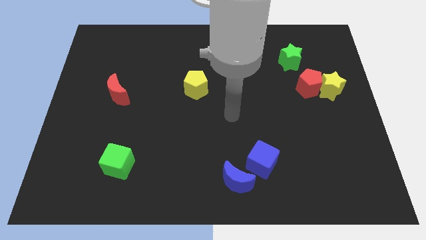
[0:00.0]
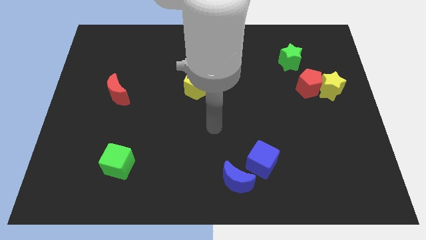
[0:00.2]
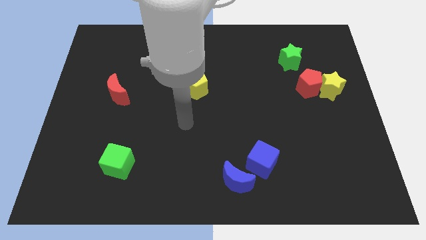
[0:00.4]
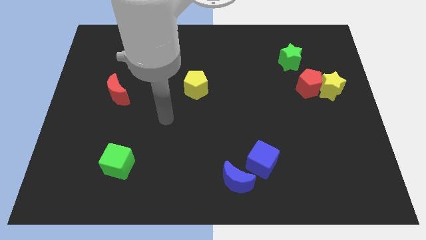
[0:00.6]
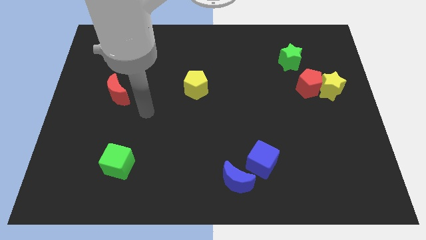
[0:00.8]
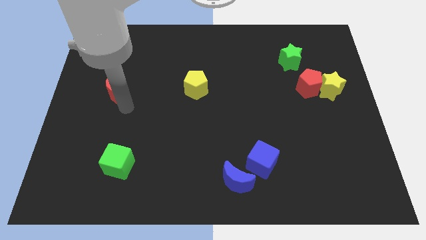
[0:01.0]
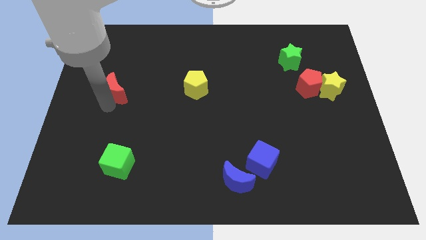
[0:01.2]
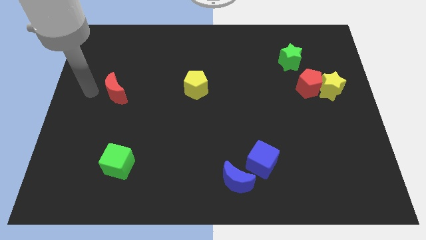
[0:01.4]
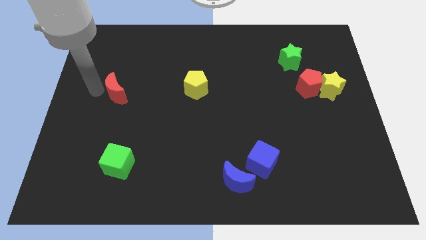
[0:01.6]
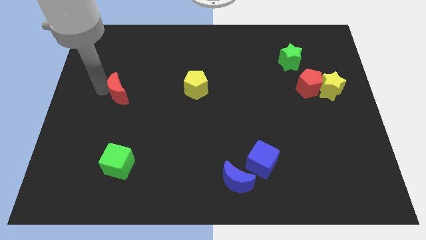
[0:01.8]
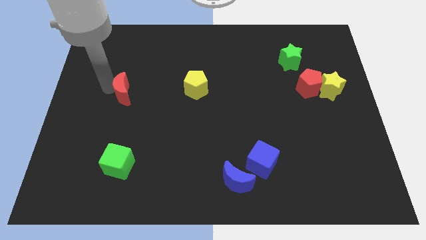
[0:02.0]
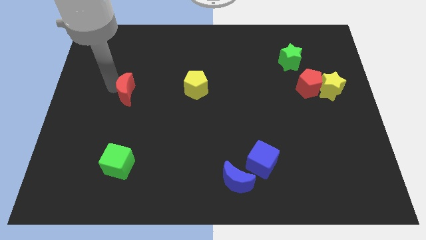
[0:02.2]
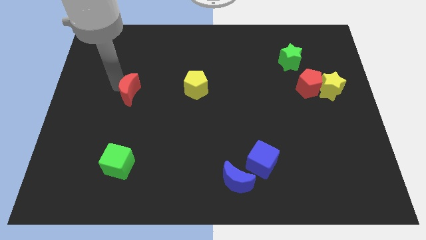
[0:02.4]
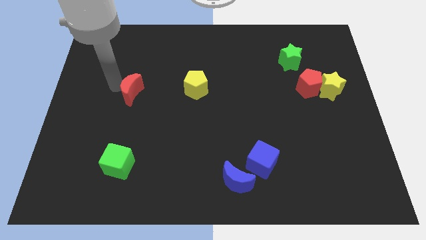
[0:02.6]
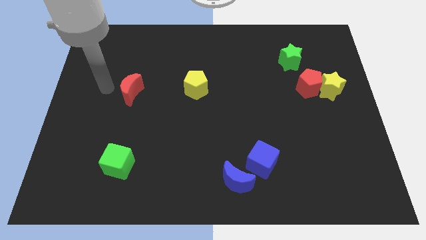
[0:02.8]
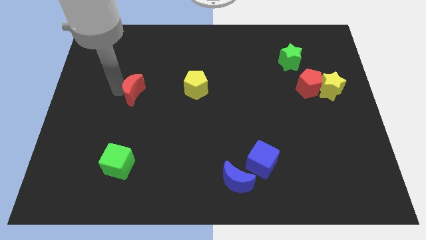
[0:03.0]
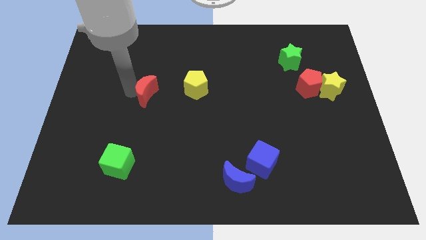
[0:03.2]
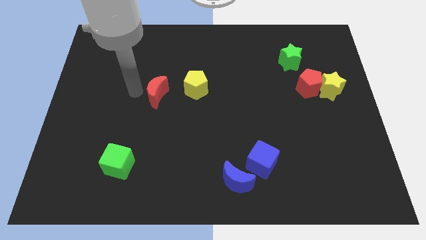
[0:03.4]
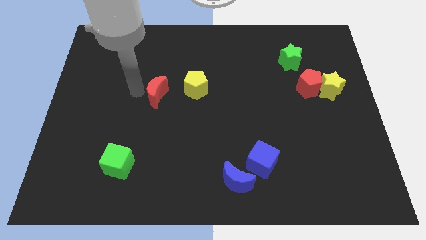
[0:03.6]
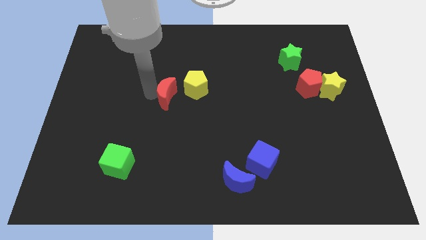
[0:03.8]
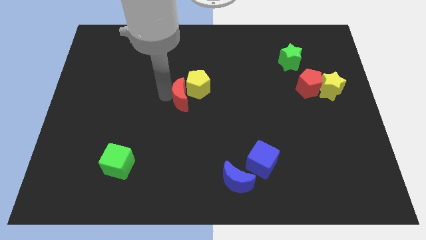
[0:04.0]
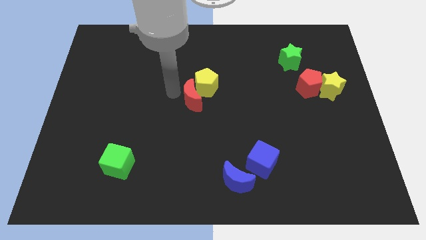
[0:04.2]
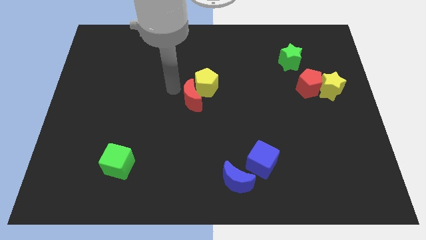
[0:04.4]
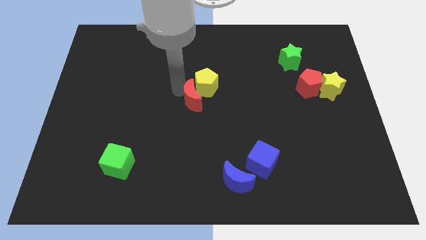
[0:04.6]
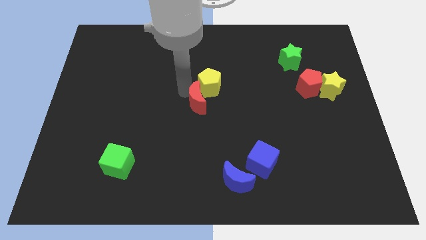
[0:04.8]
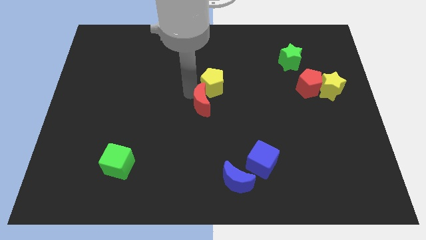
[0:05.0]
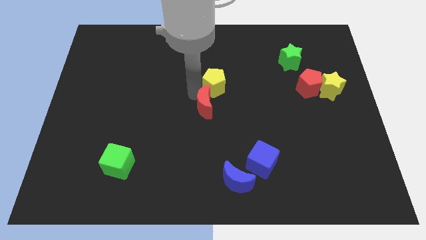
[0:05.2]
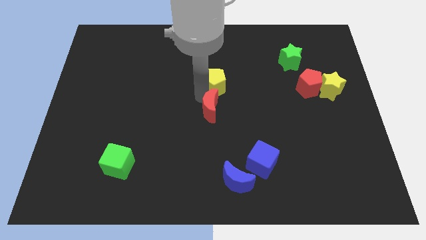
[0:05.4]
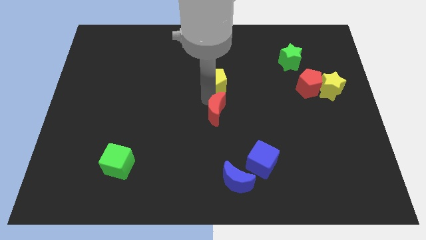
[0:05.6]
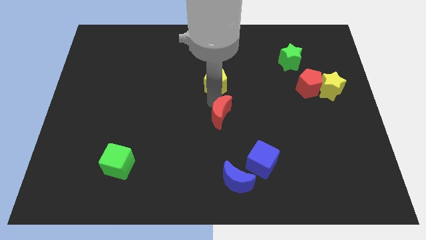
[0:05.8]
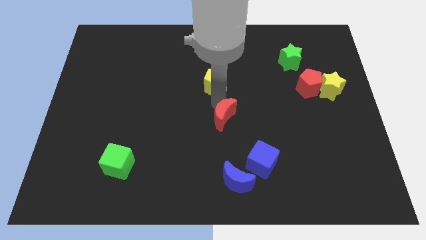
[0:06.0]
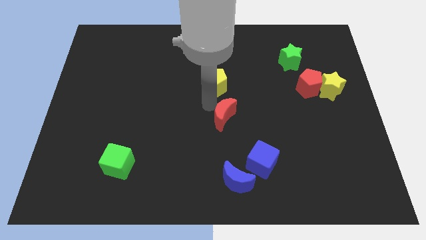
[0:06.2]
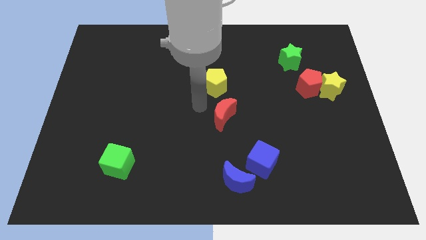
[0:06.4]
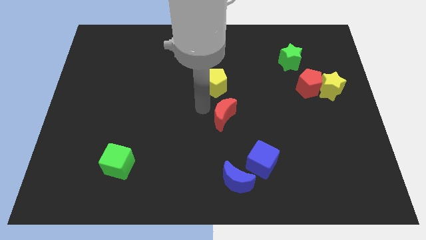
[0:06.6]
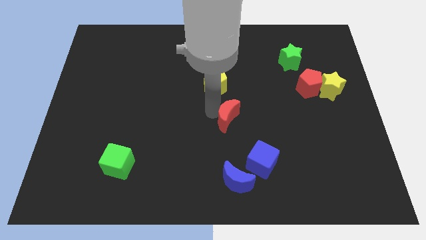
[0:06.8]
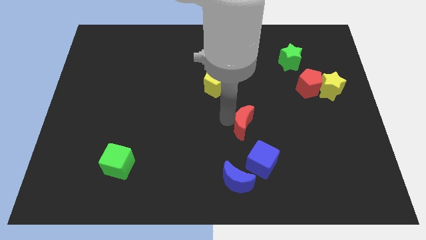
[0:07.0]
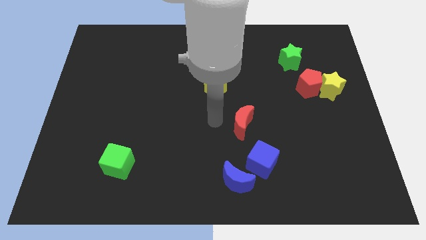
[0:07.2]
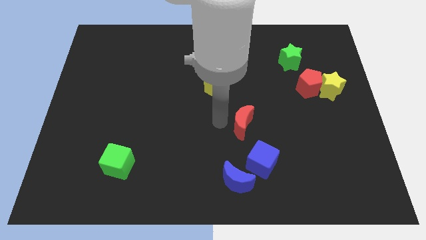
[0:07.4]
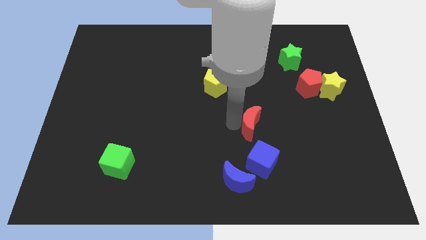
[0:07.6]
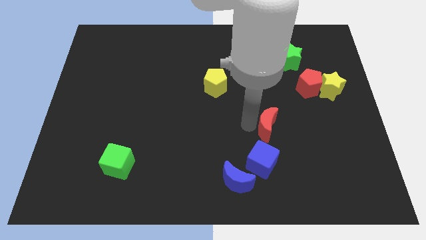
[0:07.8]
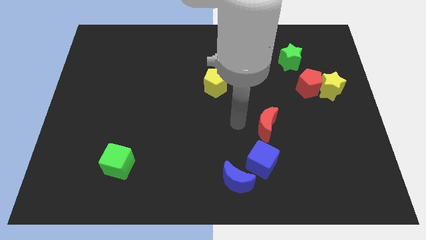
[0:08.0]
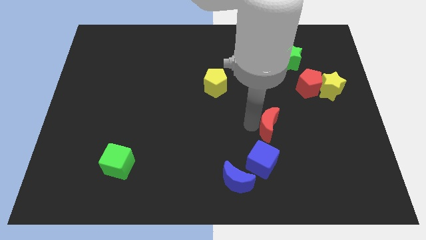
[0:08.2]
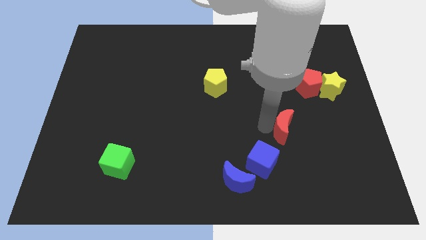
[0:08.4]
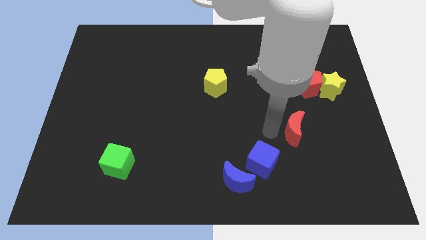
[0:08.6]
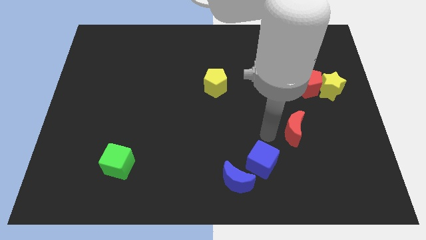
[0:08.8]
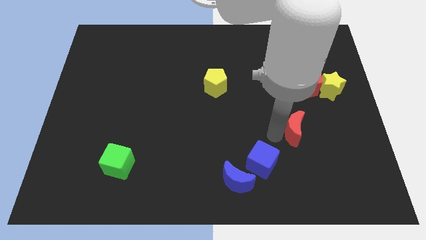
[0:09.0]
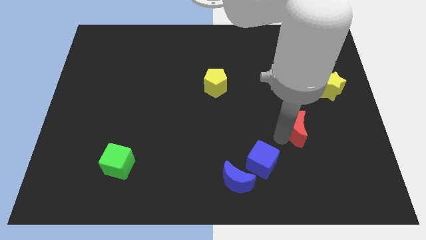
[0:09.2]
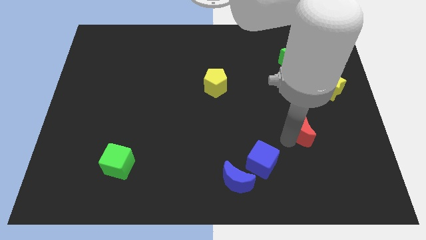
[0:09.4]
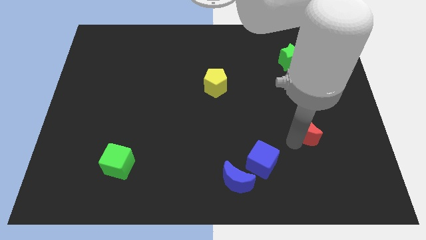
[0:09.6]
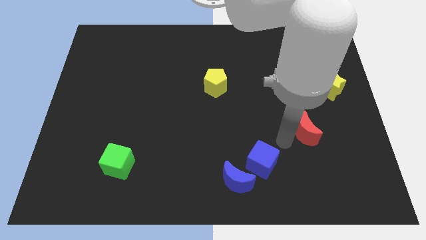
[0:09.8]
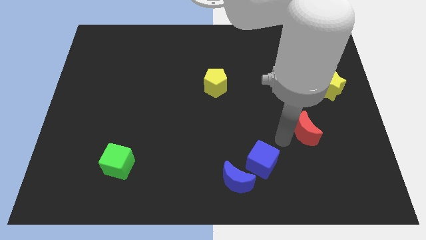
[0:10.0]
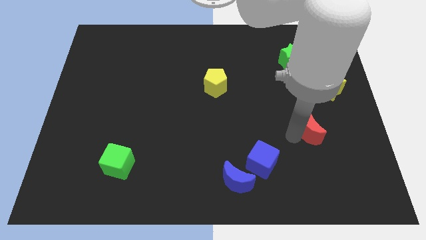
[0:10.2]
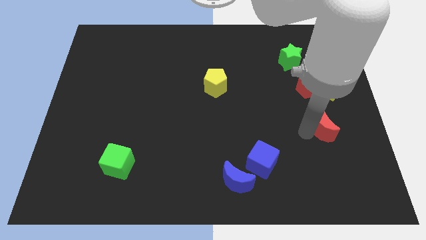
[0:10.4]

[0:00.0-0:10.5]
push the red moon to the bottom of the yellow star
